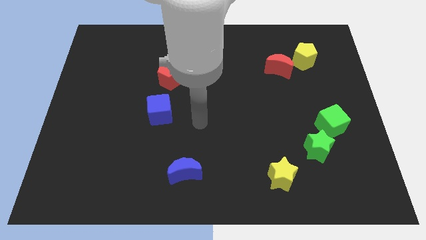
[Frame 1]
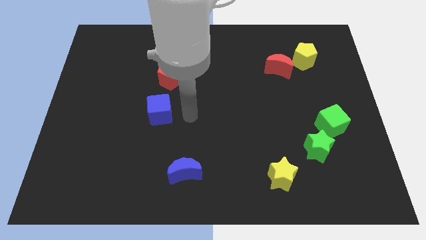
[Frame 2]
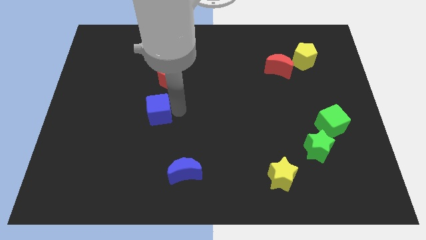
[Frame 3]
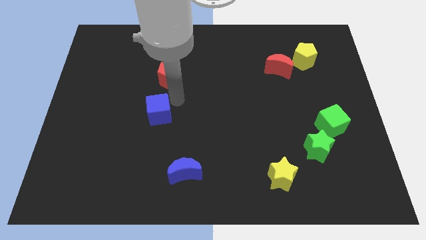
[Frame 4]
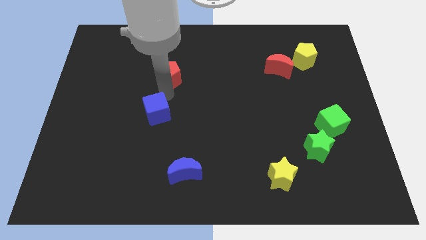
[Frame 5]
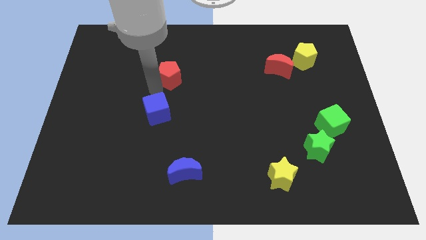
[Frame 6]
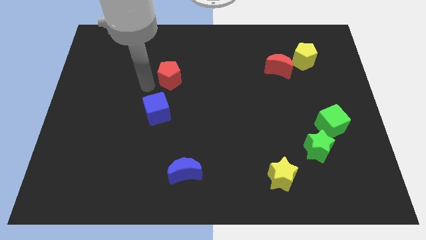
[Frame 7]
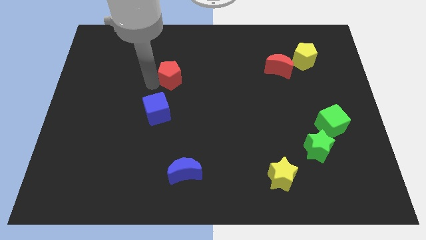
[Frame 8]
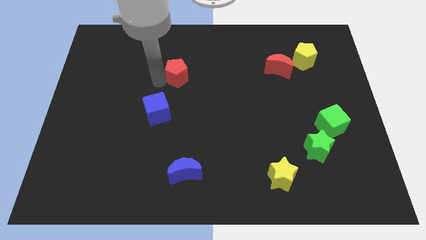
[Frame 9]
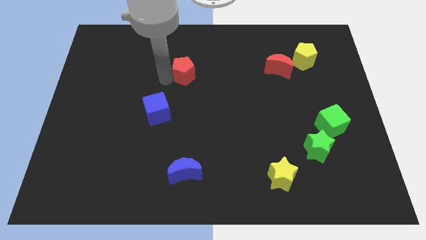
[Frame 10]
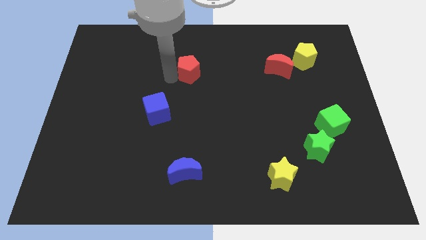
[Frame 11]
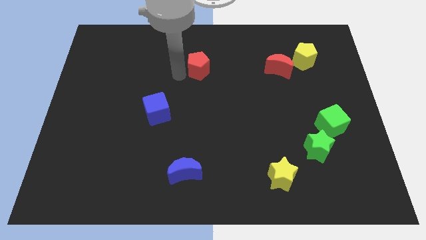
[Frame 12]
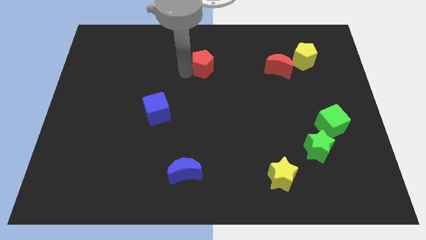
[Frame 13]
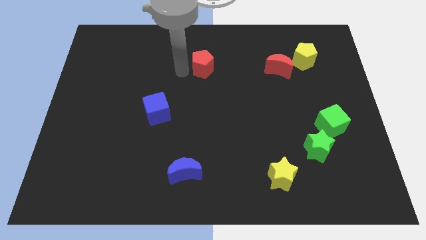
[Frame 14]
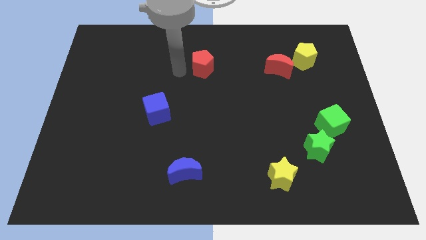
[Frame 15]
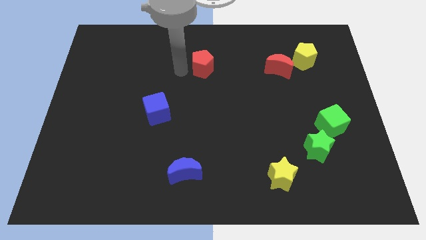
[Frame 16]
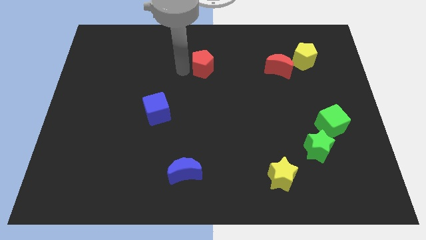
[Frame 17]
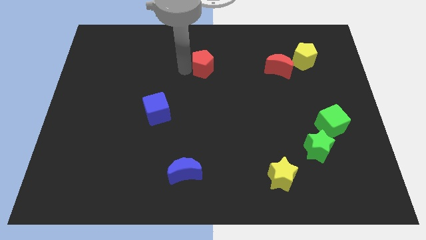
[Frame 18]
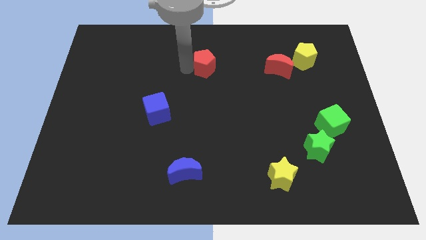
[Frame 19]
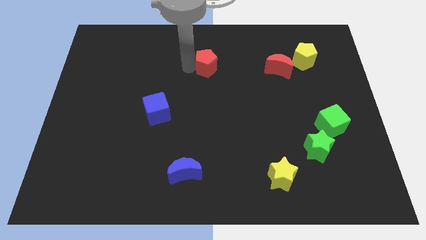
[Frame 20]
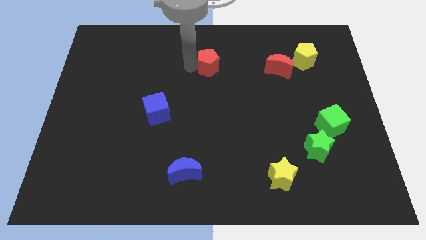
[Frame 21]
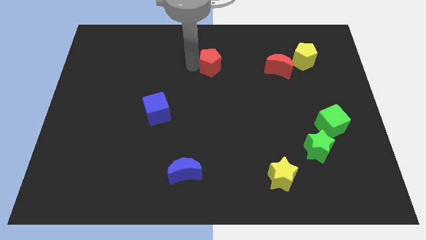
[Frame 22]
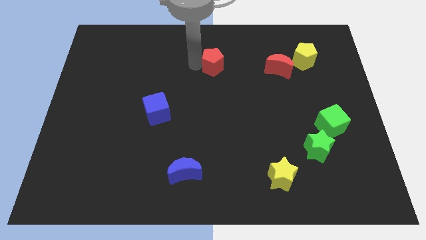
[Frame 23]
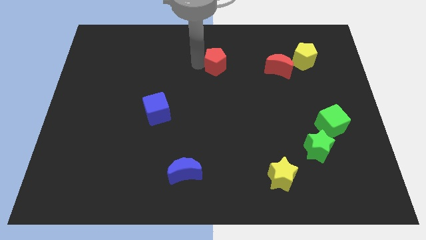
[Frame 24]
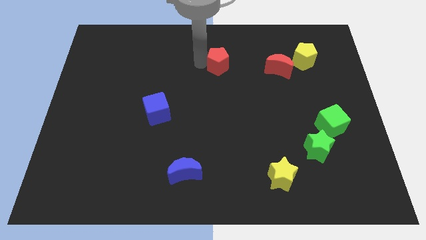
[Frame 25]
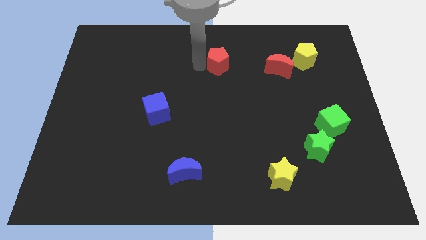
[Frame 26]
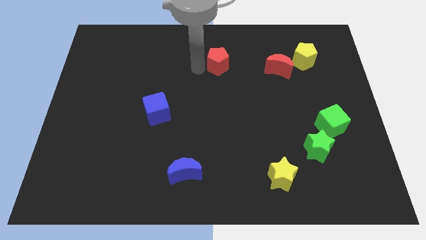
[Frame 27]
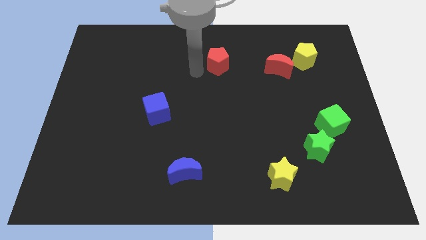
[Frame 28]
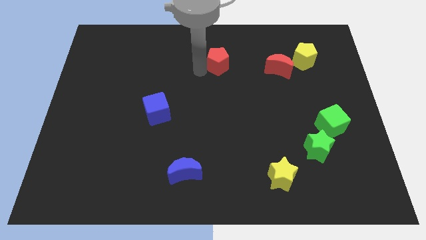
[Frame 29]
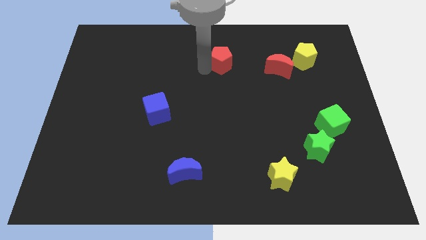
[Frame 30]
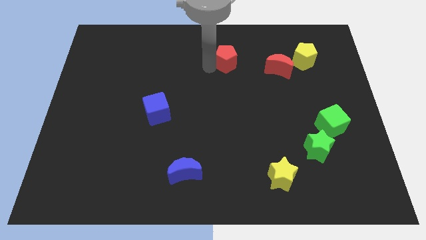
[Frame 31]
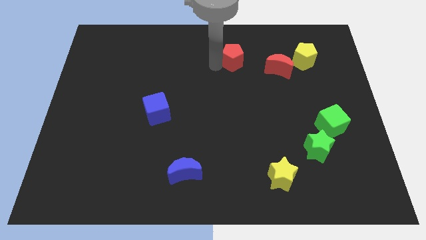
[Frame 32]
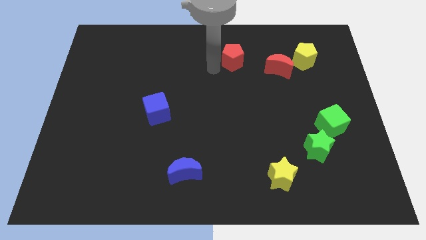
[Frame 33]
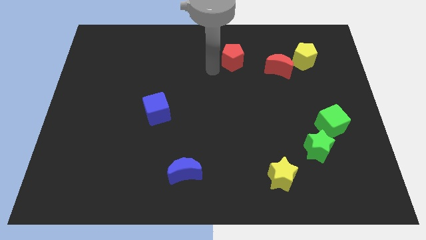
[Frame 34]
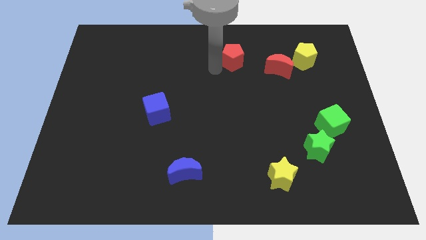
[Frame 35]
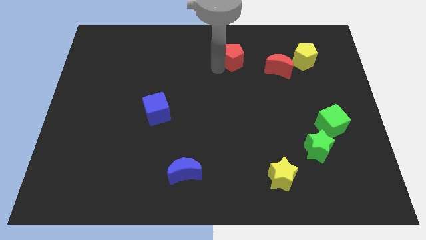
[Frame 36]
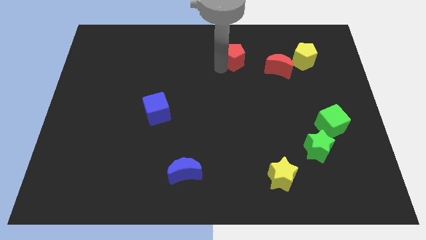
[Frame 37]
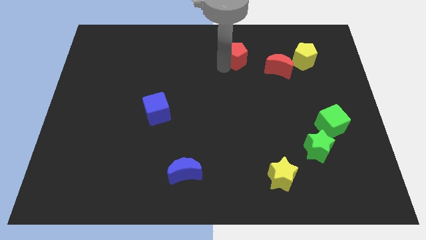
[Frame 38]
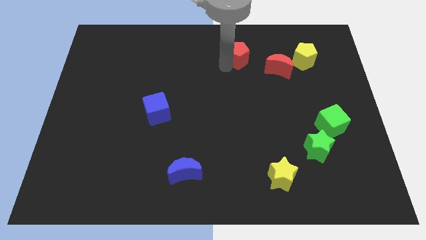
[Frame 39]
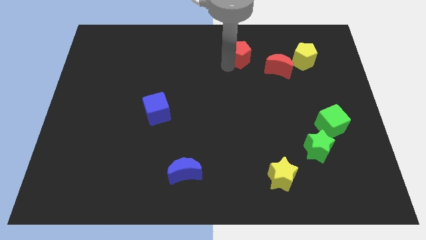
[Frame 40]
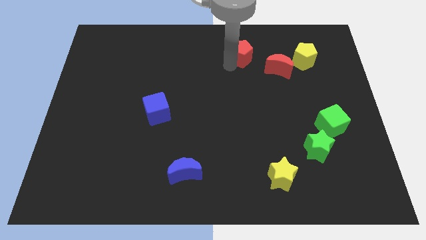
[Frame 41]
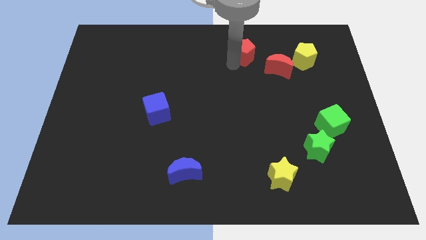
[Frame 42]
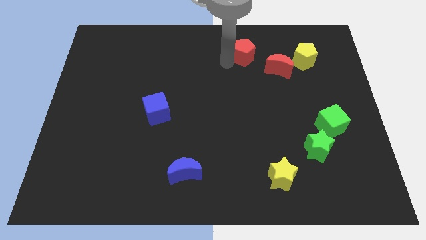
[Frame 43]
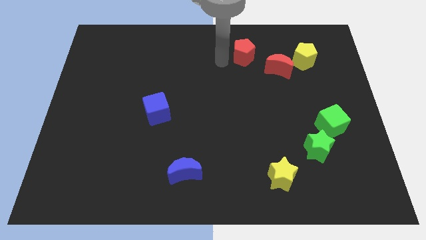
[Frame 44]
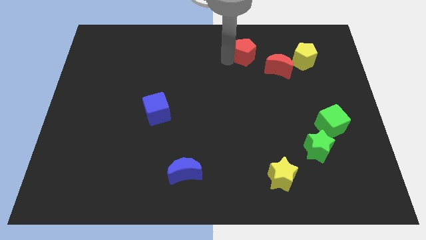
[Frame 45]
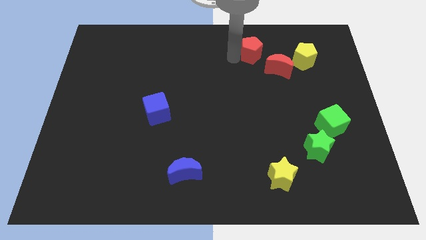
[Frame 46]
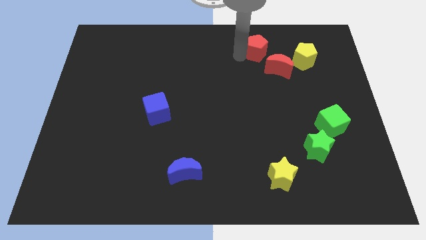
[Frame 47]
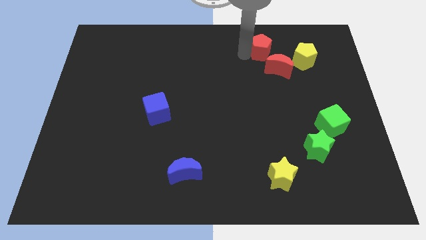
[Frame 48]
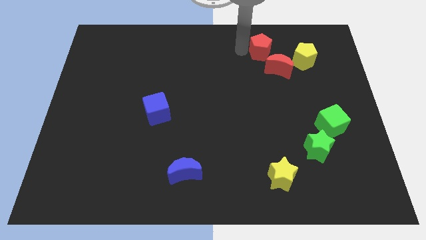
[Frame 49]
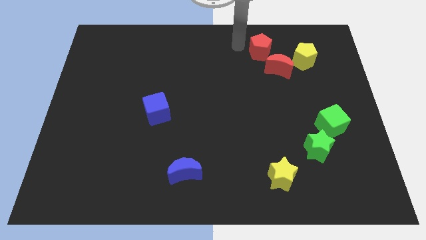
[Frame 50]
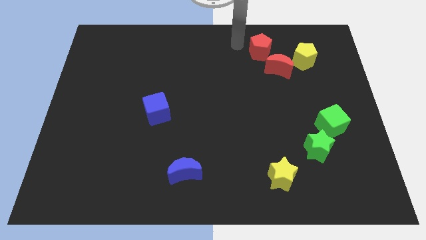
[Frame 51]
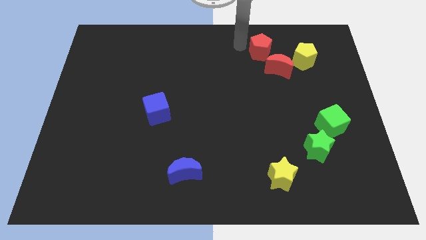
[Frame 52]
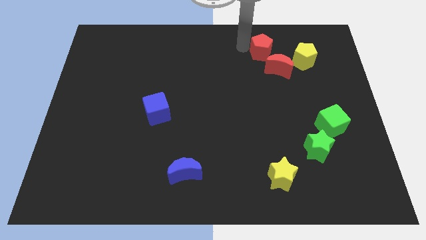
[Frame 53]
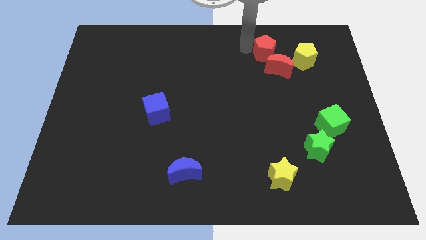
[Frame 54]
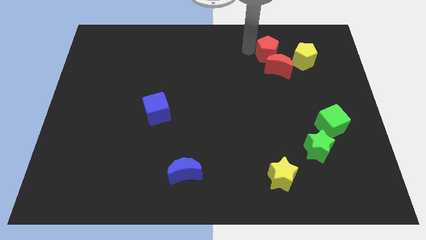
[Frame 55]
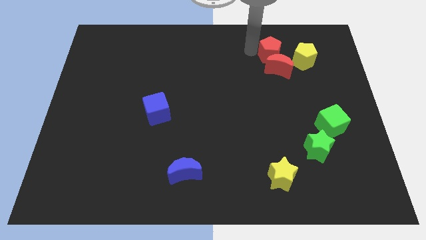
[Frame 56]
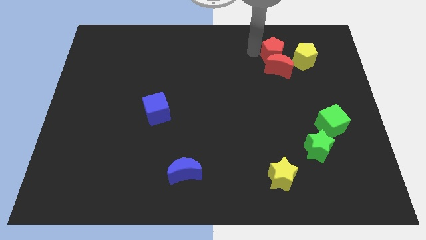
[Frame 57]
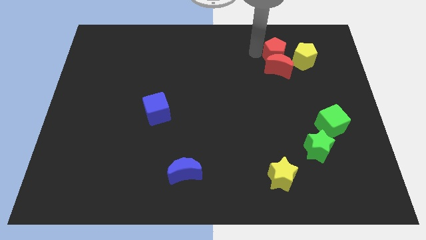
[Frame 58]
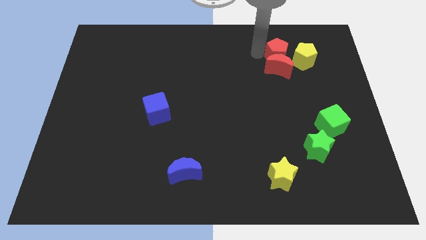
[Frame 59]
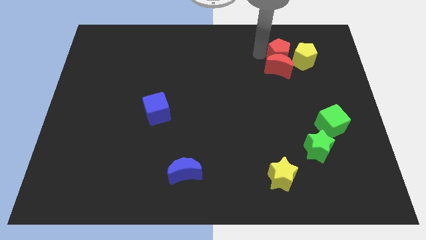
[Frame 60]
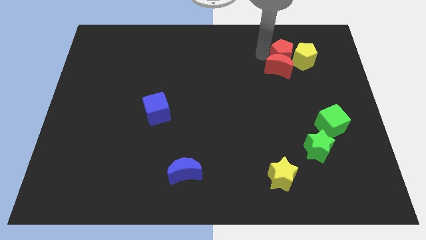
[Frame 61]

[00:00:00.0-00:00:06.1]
move the red pentagon towards the yellow pentagon

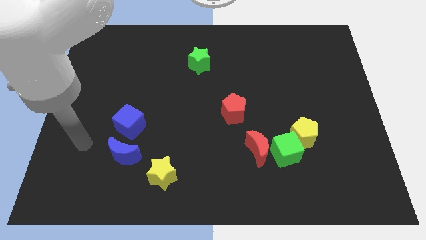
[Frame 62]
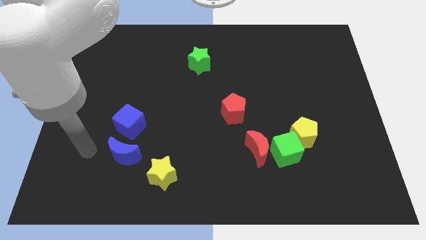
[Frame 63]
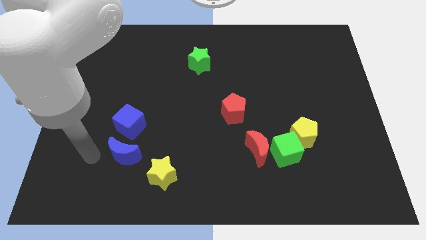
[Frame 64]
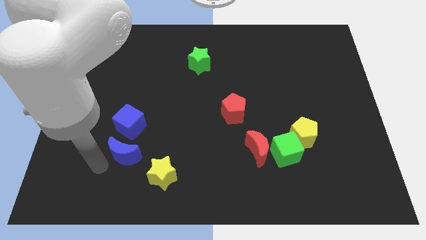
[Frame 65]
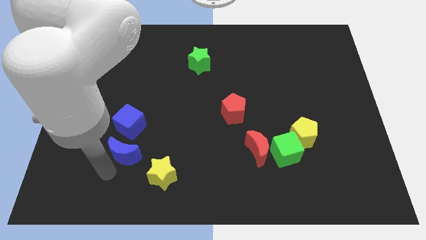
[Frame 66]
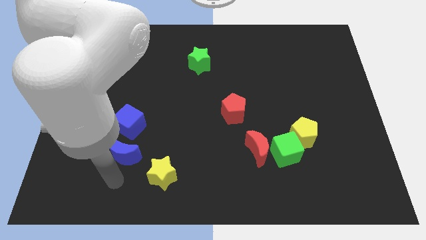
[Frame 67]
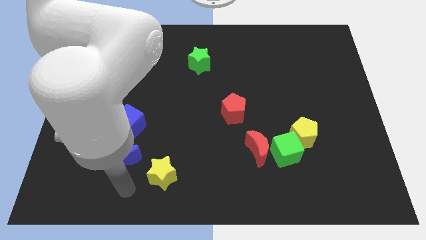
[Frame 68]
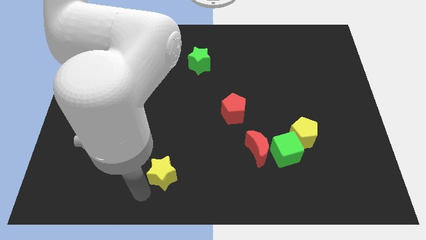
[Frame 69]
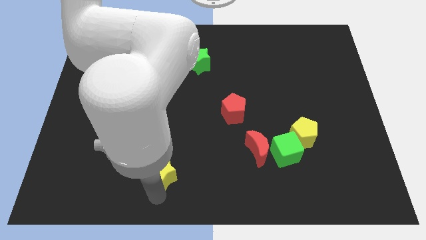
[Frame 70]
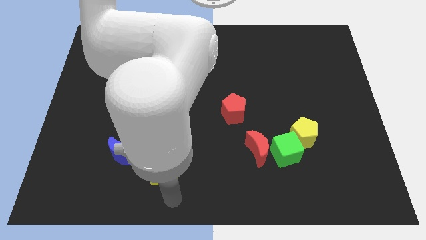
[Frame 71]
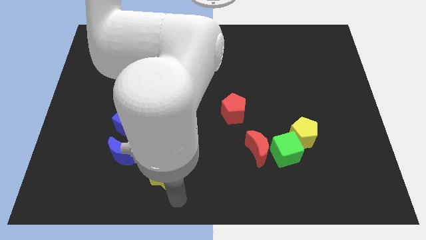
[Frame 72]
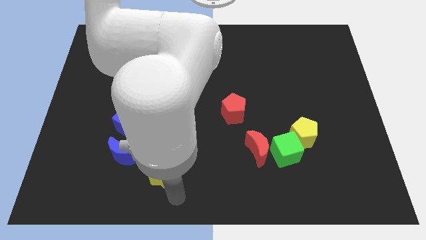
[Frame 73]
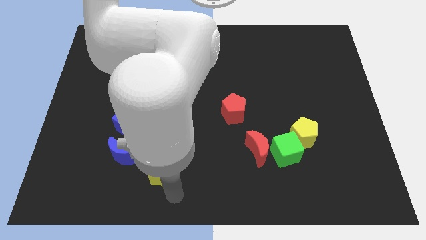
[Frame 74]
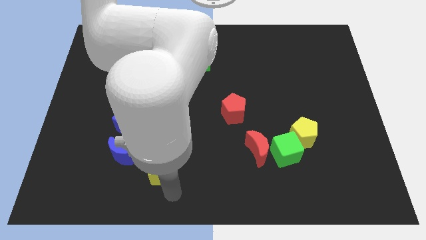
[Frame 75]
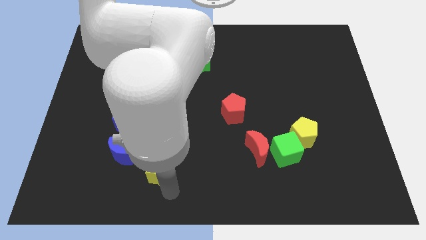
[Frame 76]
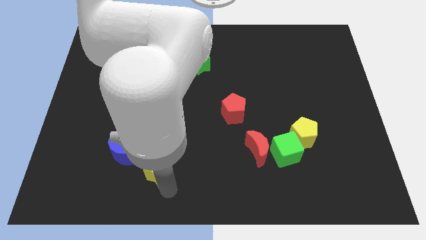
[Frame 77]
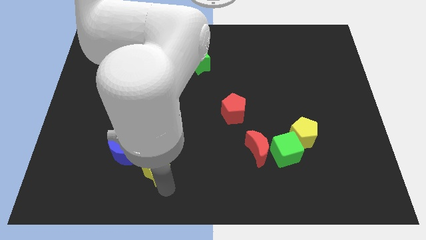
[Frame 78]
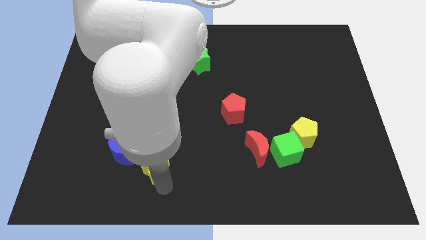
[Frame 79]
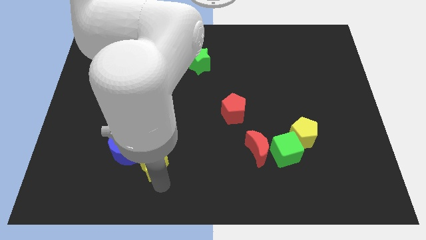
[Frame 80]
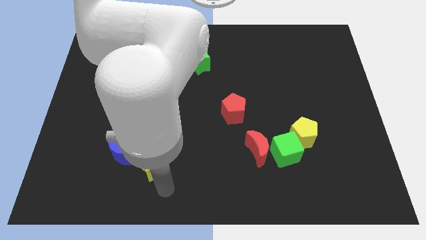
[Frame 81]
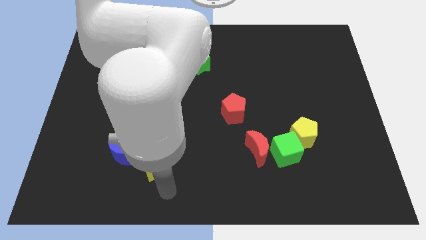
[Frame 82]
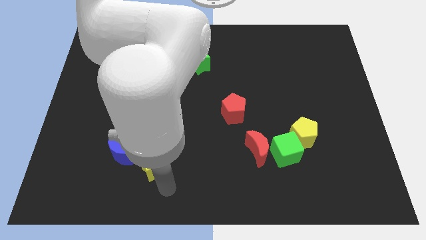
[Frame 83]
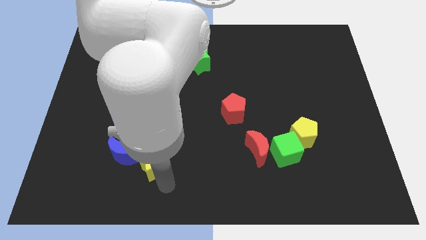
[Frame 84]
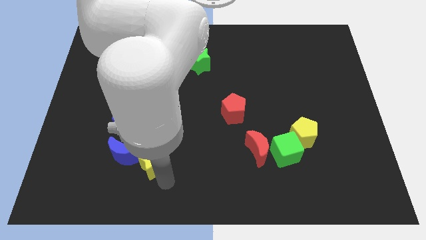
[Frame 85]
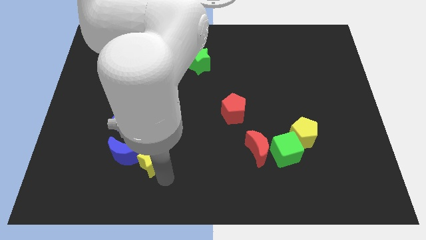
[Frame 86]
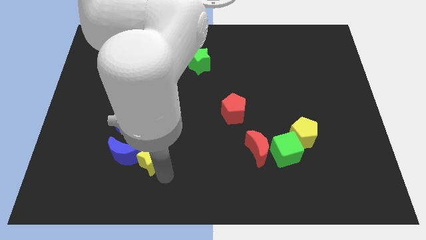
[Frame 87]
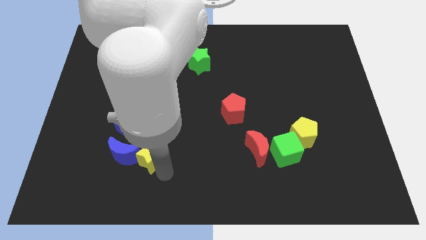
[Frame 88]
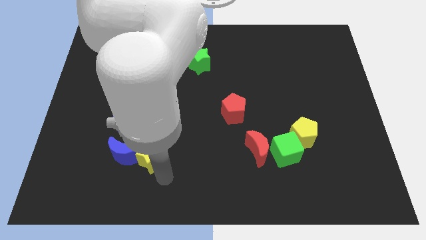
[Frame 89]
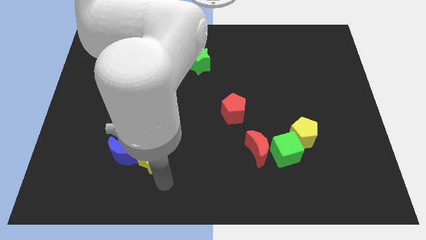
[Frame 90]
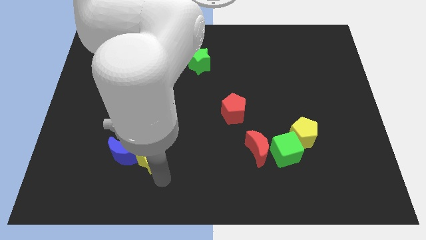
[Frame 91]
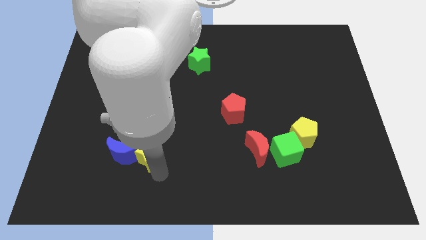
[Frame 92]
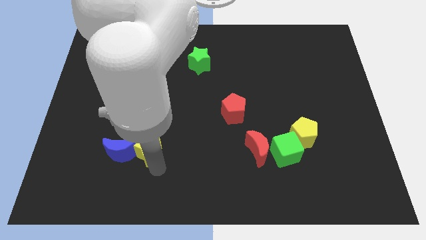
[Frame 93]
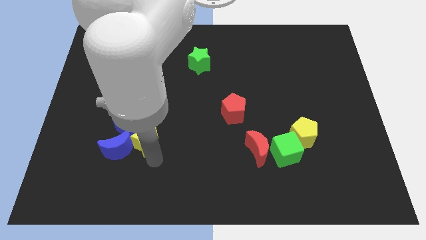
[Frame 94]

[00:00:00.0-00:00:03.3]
put the yellow star close to the blue cube
